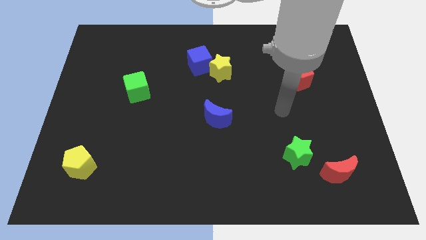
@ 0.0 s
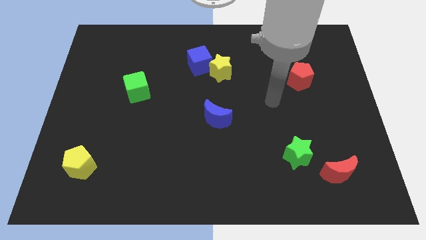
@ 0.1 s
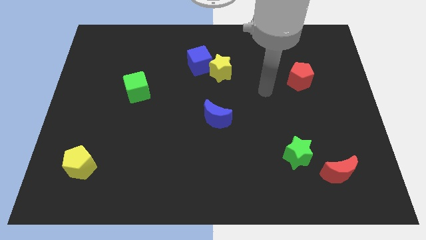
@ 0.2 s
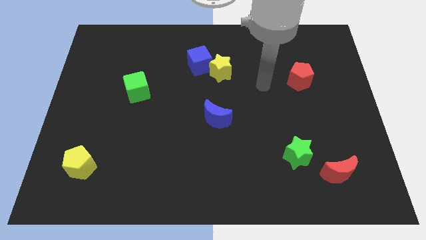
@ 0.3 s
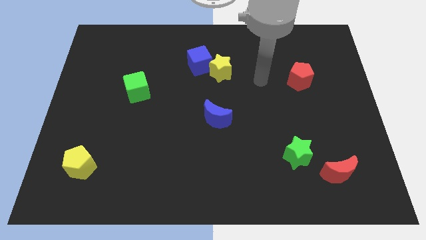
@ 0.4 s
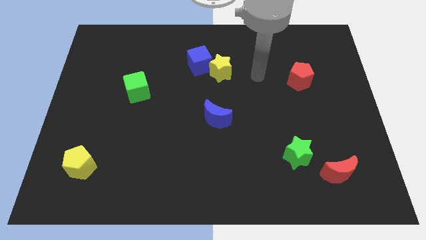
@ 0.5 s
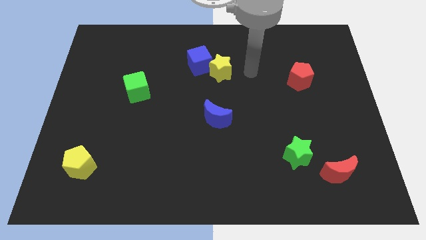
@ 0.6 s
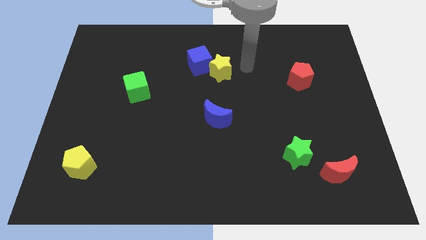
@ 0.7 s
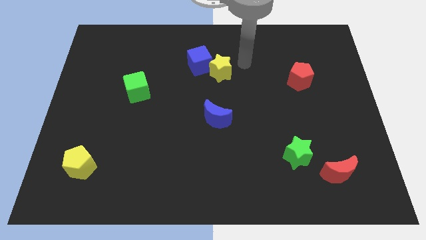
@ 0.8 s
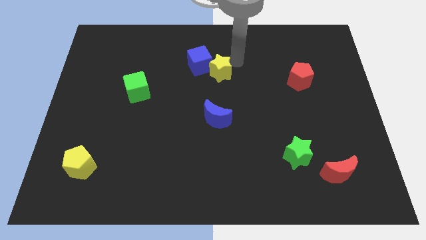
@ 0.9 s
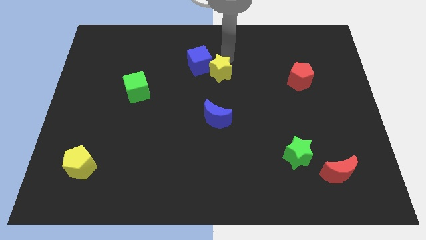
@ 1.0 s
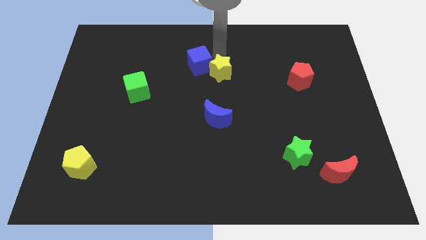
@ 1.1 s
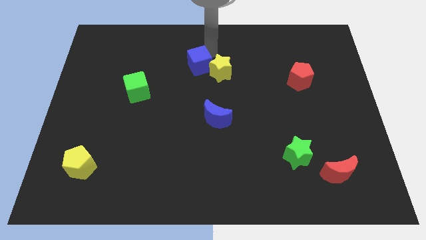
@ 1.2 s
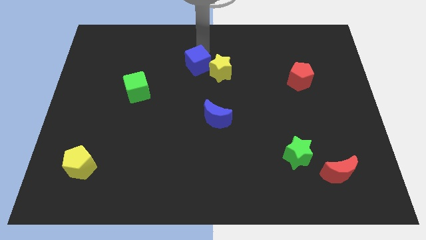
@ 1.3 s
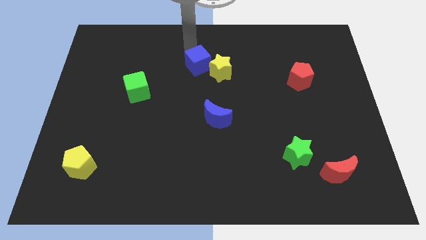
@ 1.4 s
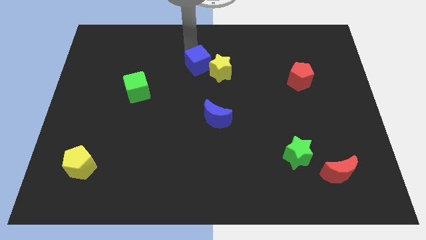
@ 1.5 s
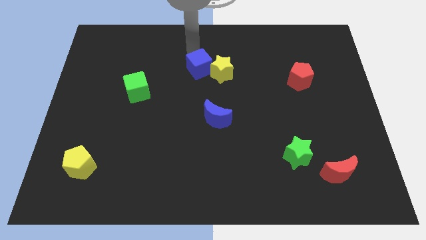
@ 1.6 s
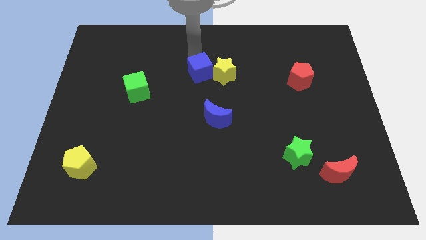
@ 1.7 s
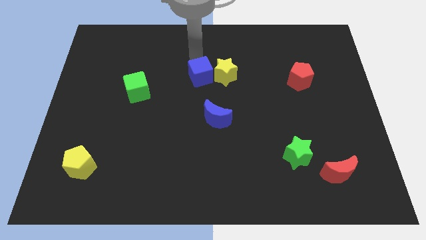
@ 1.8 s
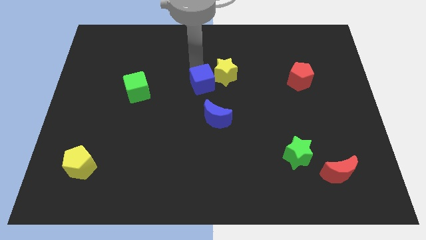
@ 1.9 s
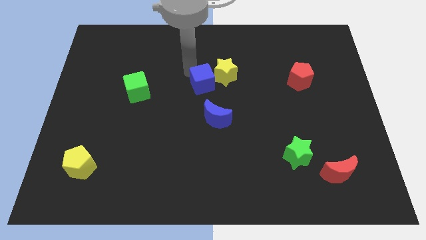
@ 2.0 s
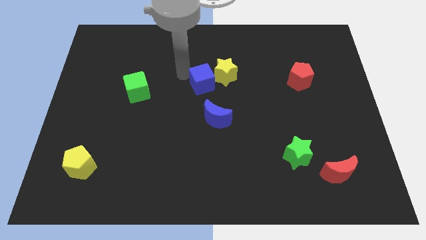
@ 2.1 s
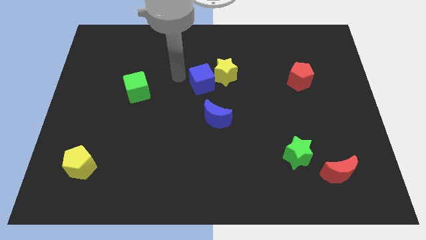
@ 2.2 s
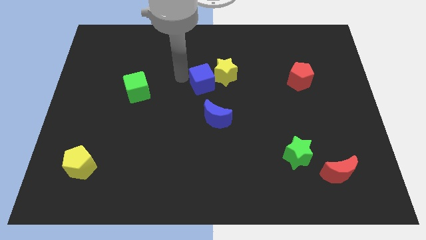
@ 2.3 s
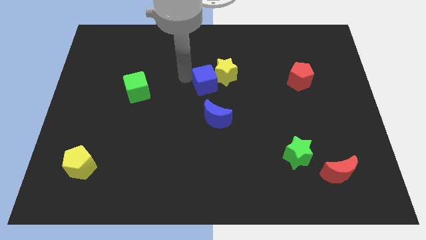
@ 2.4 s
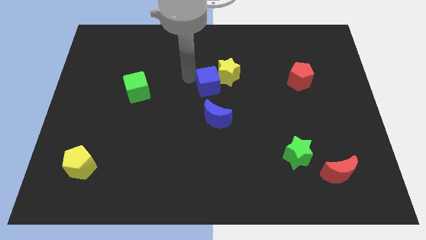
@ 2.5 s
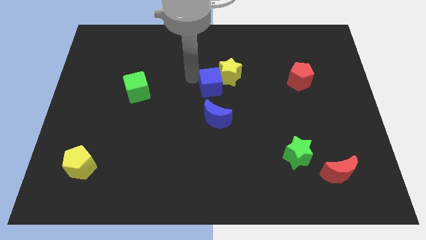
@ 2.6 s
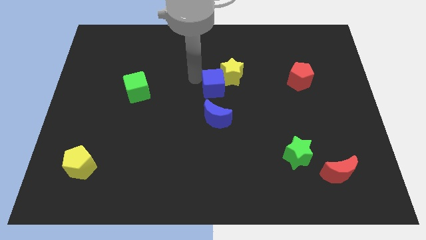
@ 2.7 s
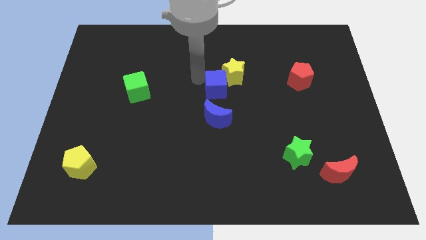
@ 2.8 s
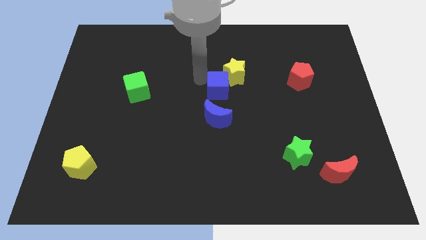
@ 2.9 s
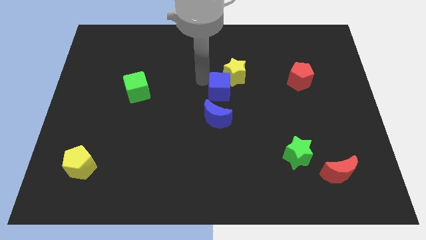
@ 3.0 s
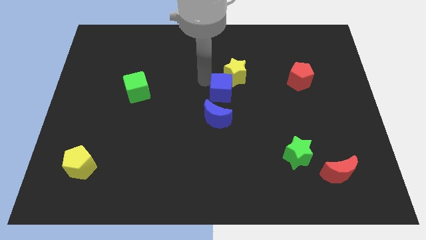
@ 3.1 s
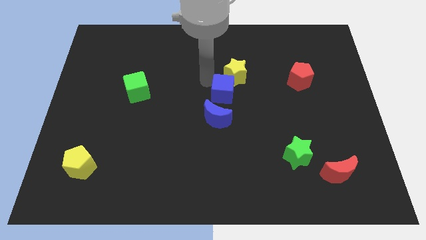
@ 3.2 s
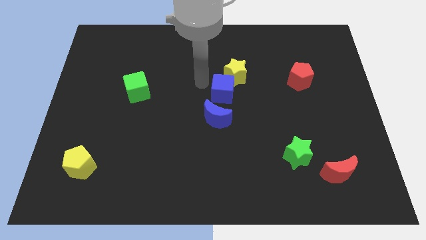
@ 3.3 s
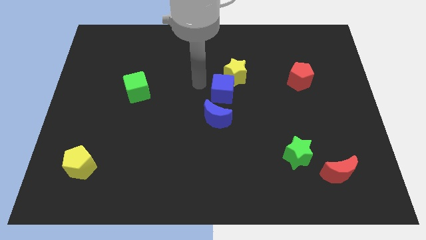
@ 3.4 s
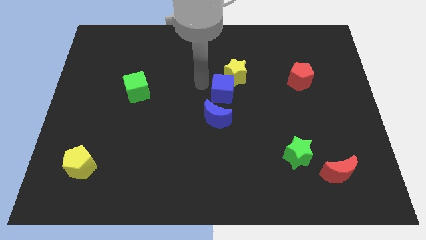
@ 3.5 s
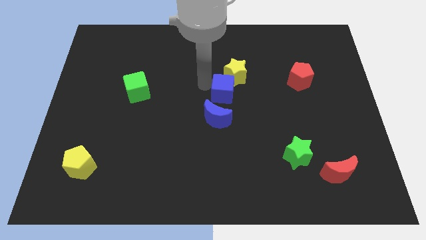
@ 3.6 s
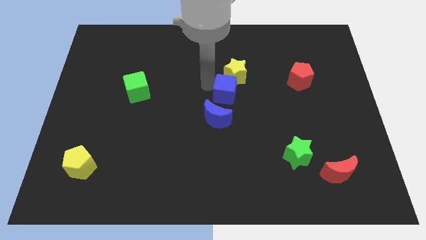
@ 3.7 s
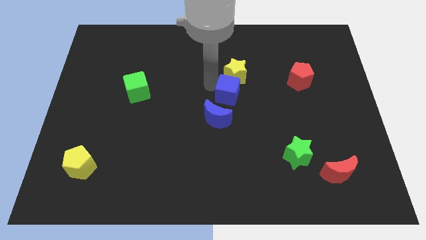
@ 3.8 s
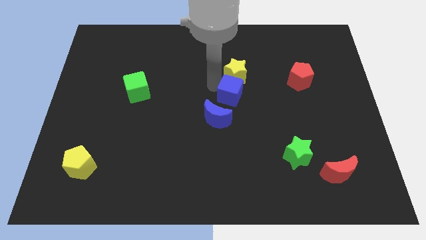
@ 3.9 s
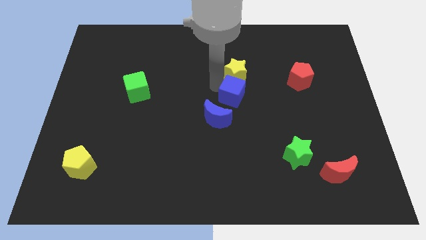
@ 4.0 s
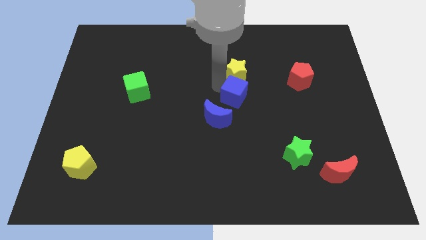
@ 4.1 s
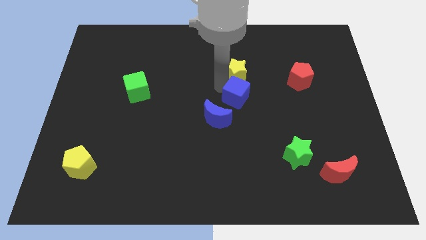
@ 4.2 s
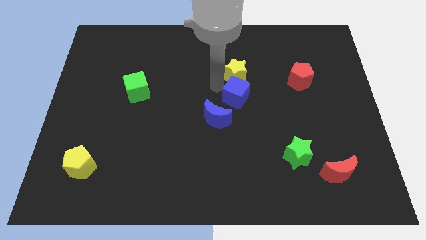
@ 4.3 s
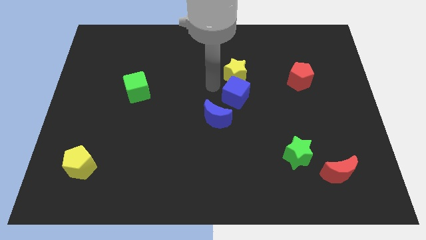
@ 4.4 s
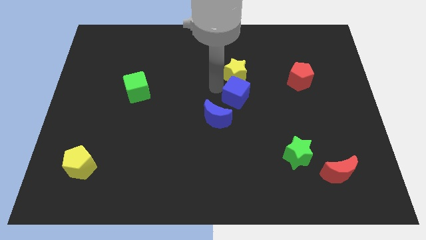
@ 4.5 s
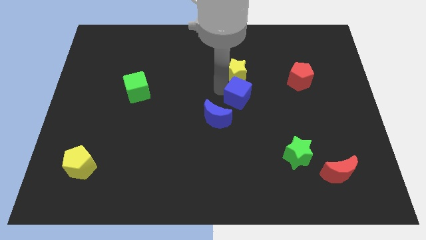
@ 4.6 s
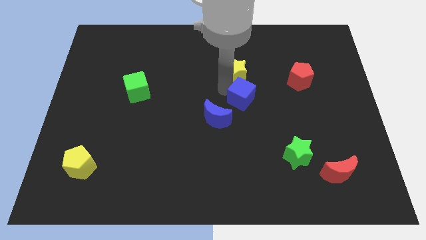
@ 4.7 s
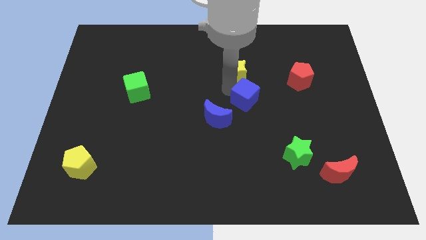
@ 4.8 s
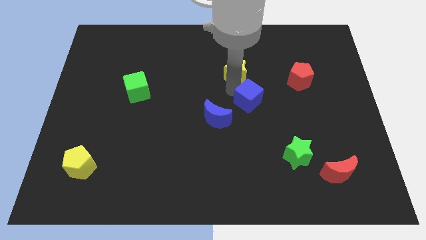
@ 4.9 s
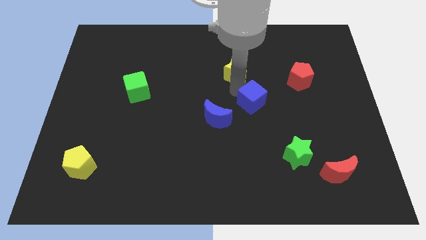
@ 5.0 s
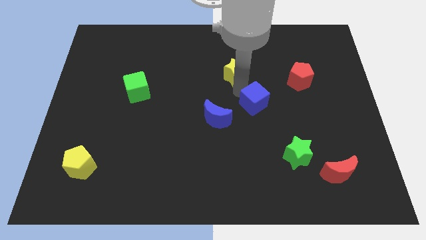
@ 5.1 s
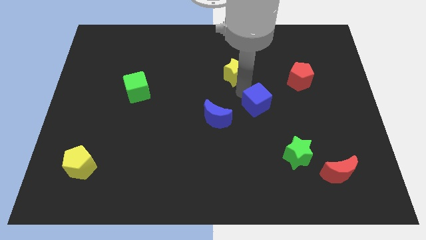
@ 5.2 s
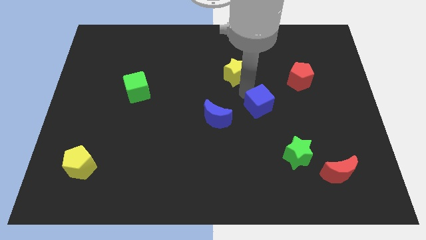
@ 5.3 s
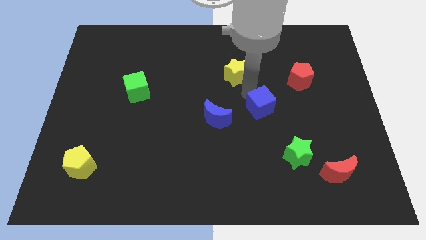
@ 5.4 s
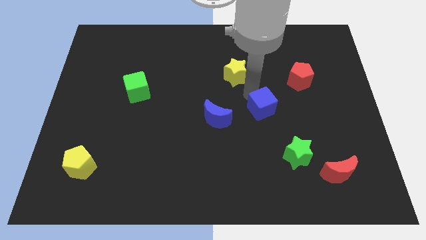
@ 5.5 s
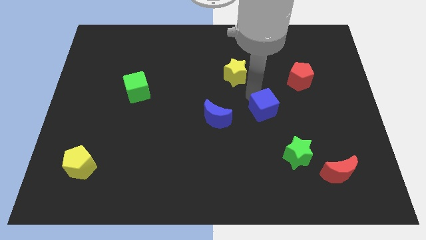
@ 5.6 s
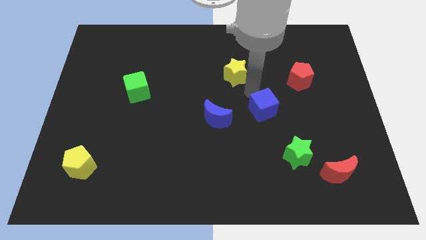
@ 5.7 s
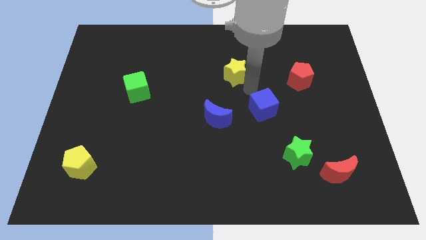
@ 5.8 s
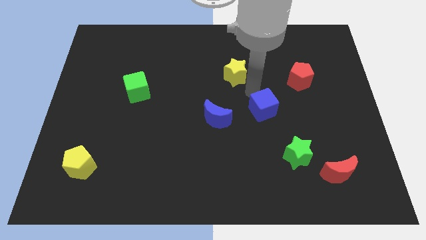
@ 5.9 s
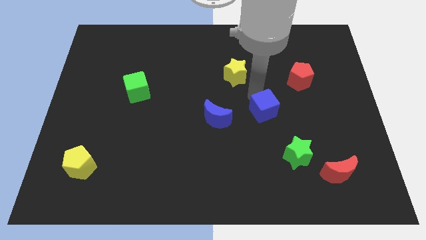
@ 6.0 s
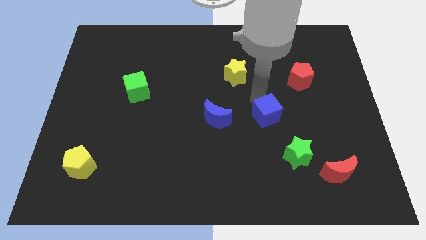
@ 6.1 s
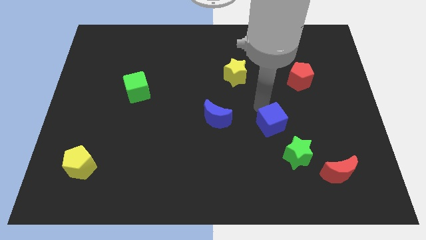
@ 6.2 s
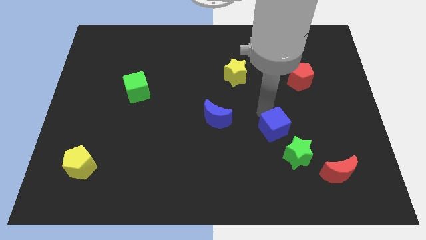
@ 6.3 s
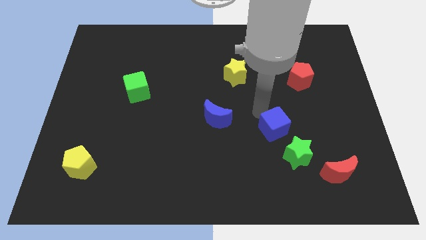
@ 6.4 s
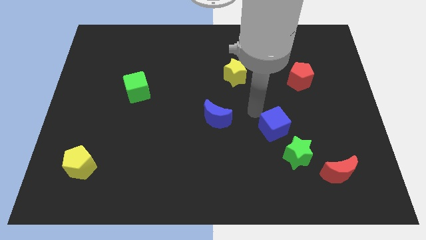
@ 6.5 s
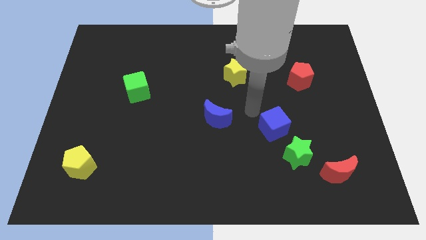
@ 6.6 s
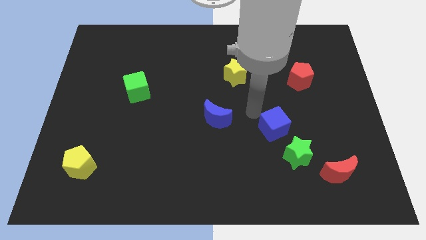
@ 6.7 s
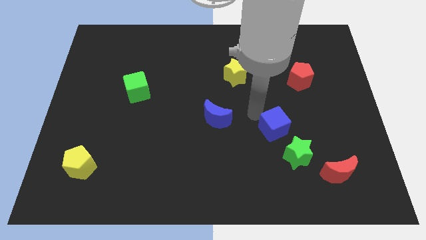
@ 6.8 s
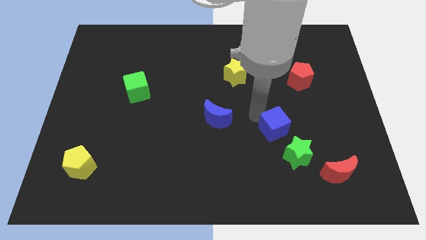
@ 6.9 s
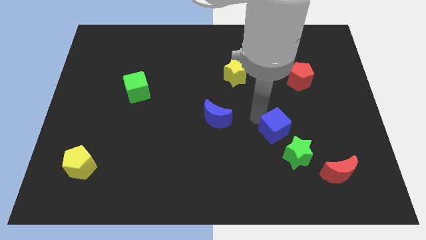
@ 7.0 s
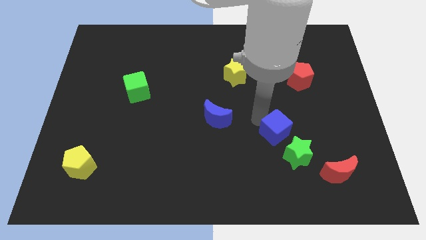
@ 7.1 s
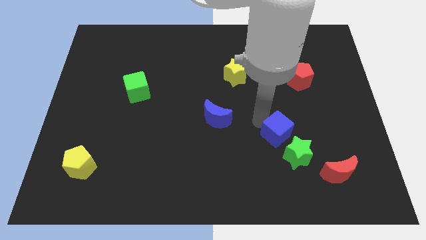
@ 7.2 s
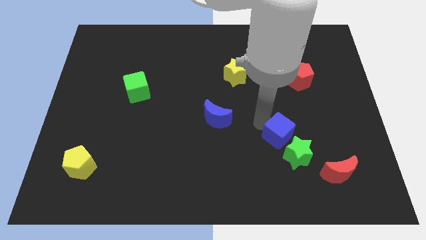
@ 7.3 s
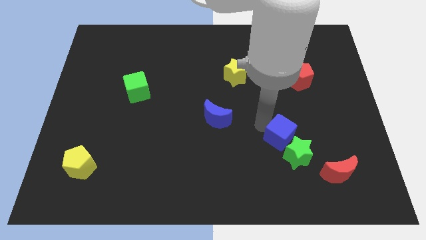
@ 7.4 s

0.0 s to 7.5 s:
move the blue cube to the green star
